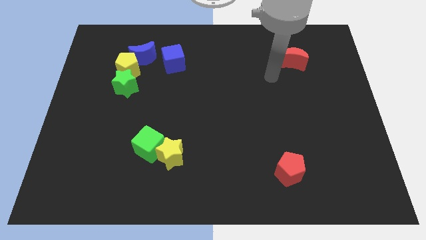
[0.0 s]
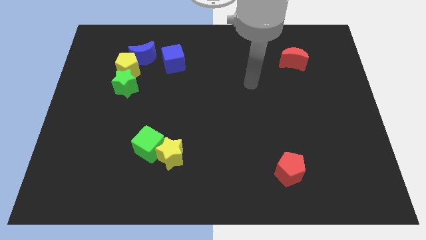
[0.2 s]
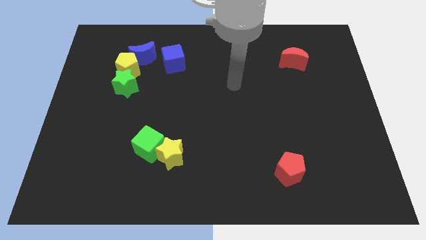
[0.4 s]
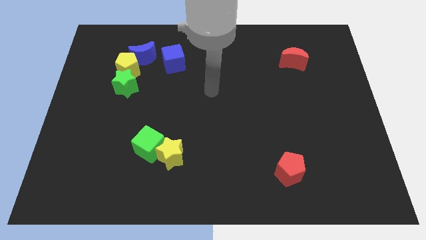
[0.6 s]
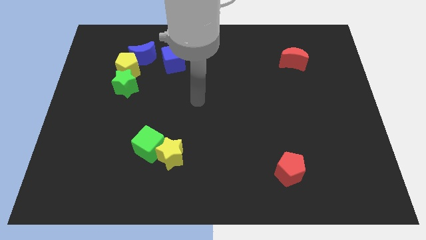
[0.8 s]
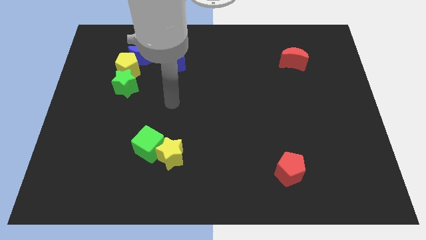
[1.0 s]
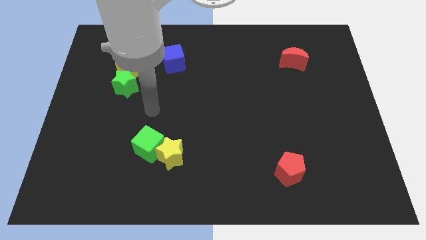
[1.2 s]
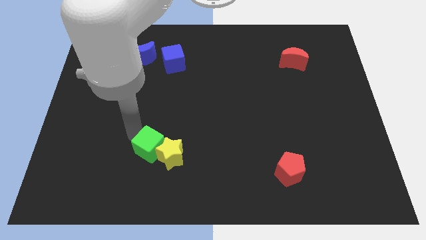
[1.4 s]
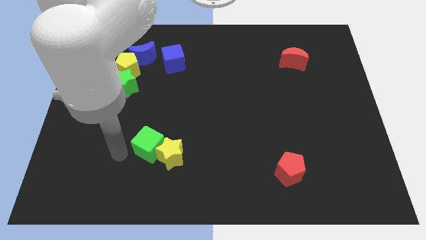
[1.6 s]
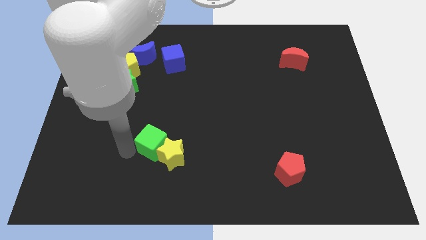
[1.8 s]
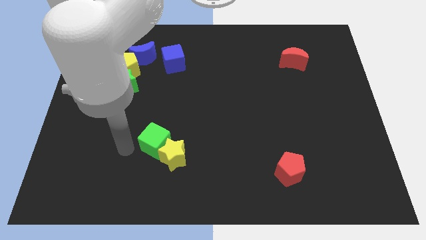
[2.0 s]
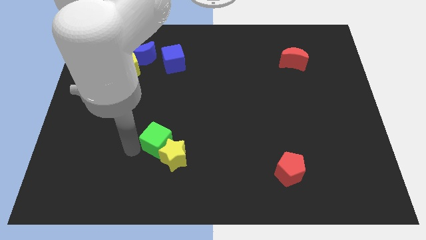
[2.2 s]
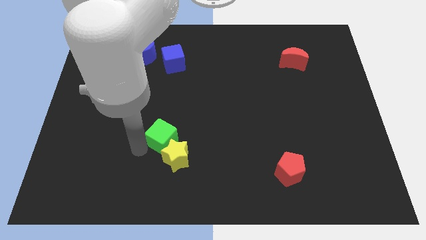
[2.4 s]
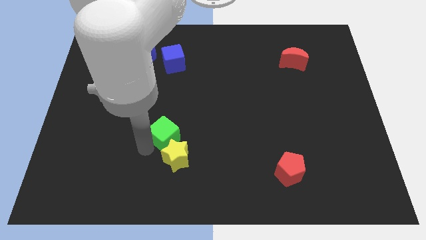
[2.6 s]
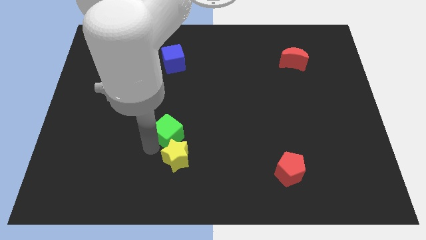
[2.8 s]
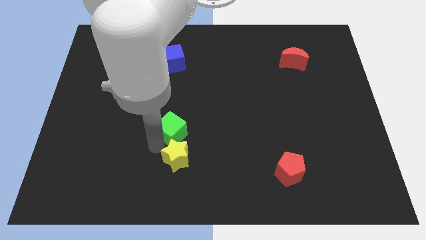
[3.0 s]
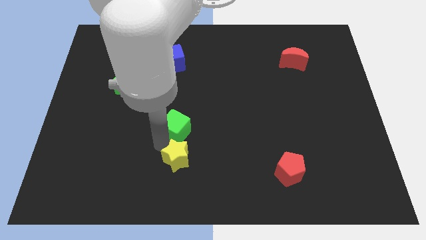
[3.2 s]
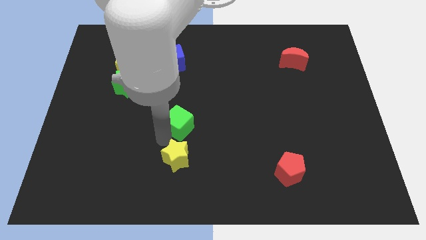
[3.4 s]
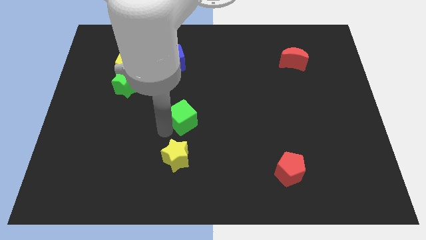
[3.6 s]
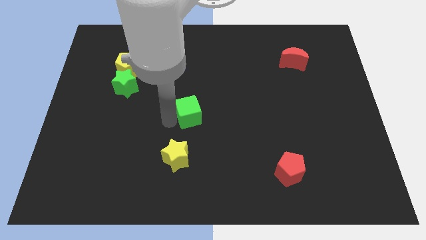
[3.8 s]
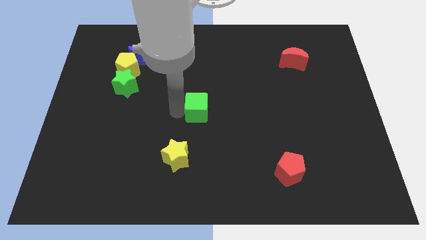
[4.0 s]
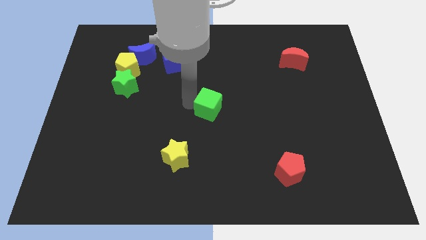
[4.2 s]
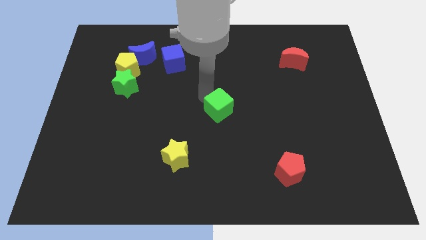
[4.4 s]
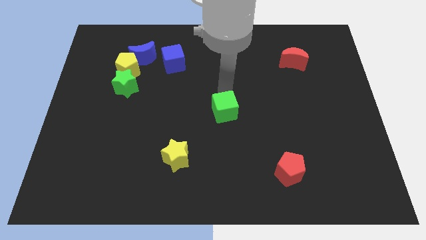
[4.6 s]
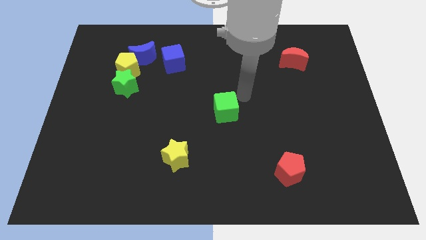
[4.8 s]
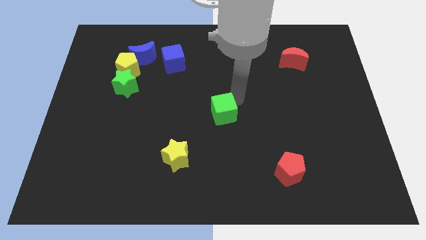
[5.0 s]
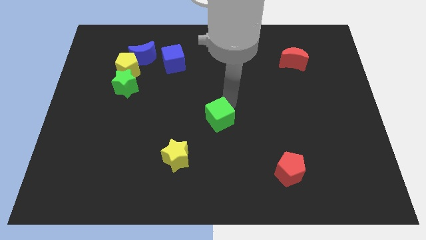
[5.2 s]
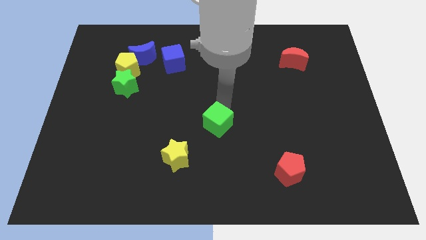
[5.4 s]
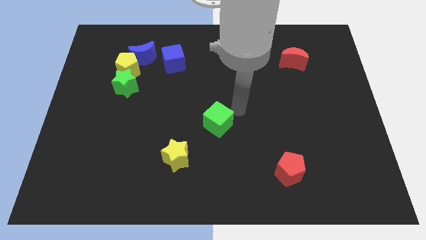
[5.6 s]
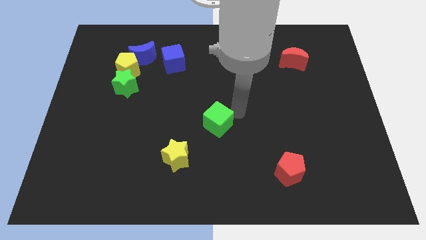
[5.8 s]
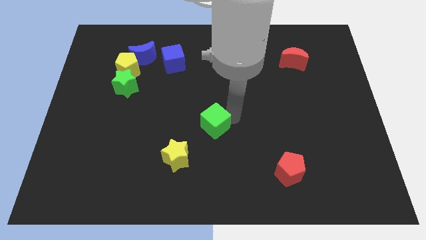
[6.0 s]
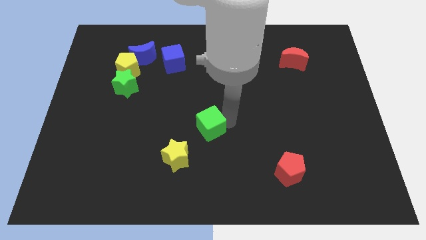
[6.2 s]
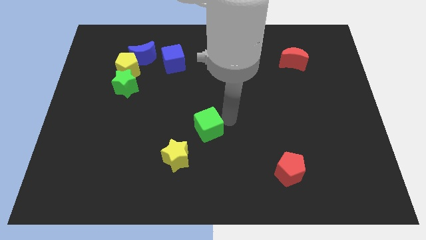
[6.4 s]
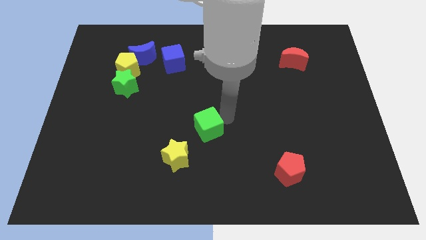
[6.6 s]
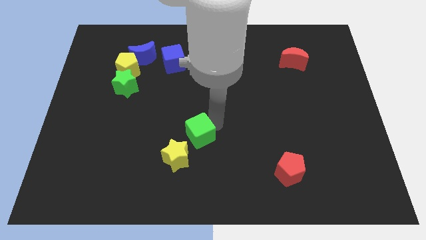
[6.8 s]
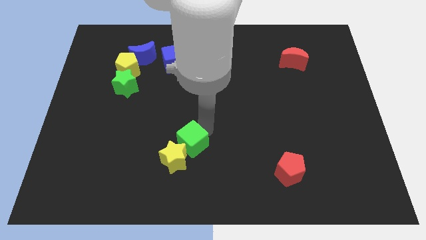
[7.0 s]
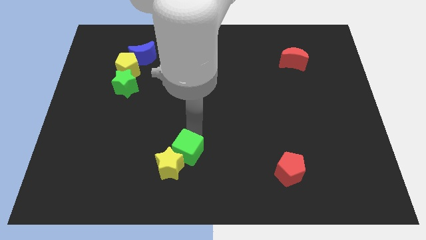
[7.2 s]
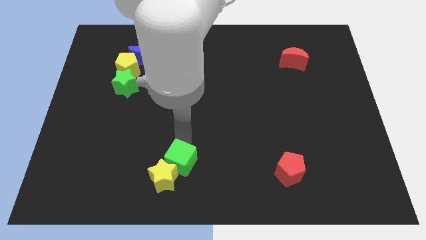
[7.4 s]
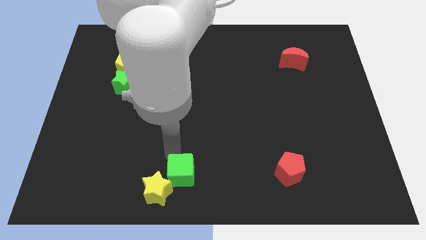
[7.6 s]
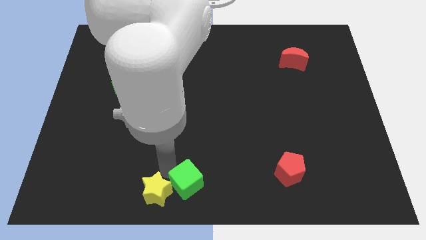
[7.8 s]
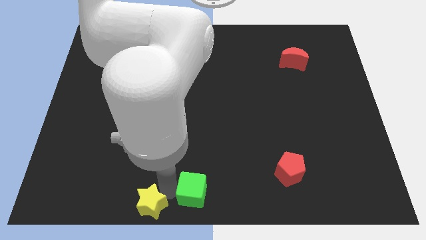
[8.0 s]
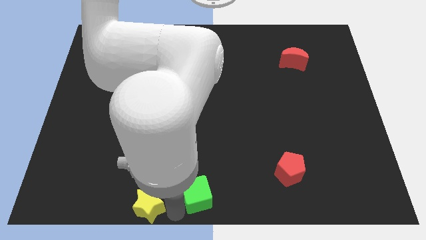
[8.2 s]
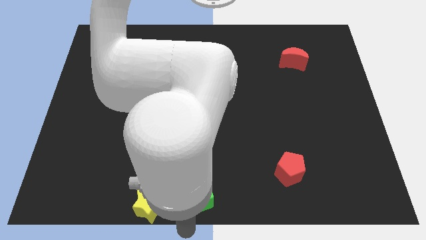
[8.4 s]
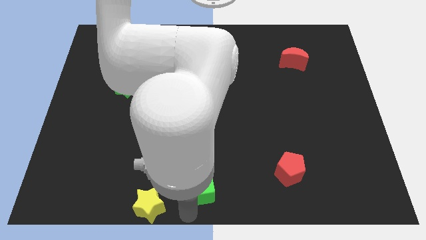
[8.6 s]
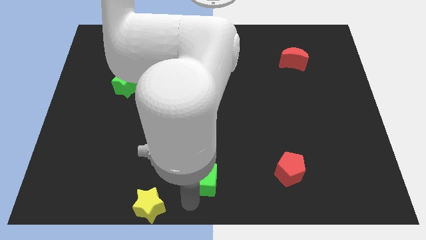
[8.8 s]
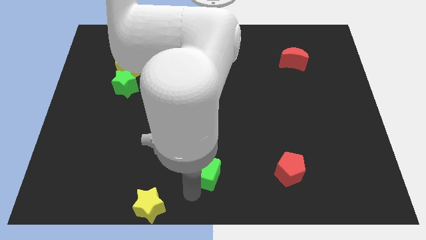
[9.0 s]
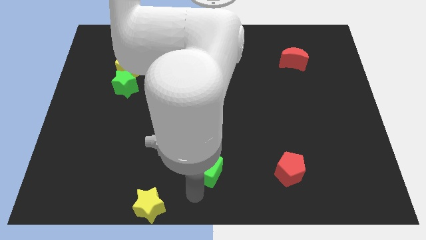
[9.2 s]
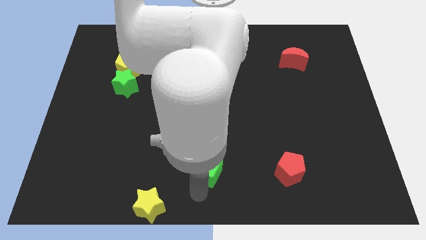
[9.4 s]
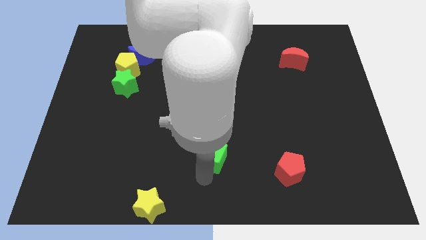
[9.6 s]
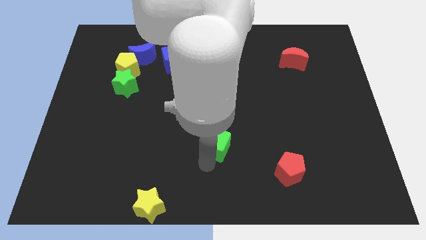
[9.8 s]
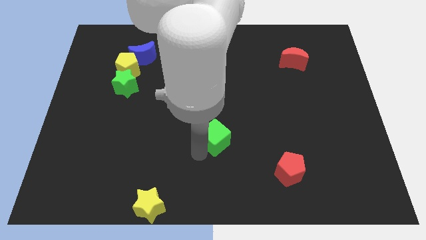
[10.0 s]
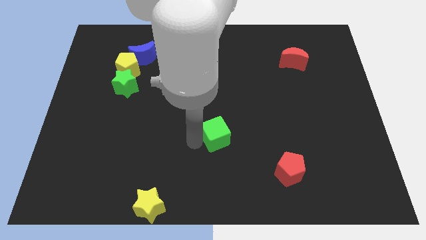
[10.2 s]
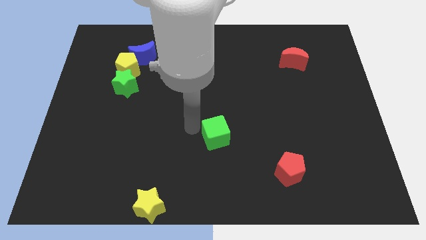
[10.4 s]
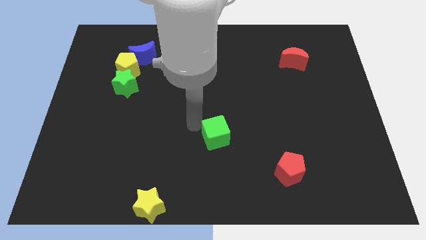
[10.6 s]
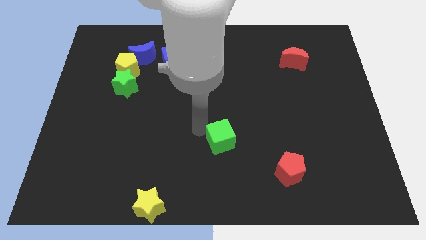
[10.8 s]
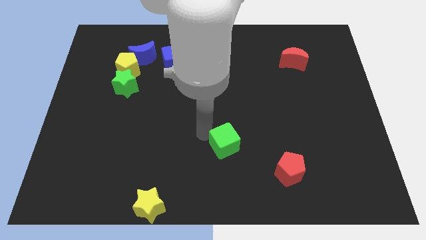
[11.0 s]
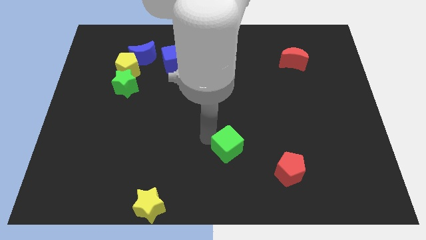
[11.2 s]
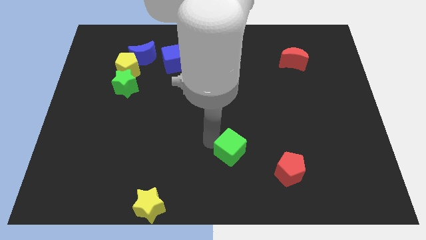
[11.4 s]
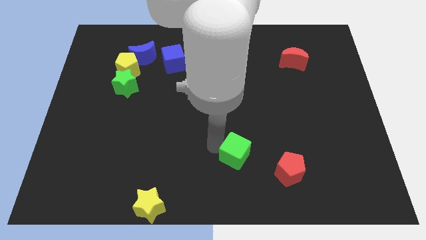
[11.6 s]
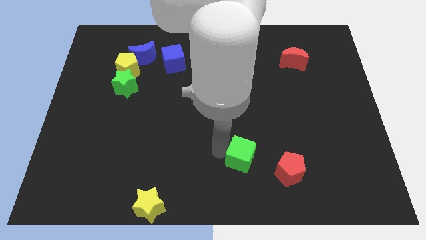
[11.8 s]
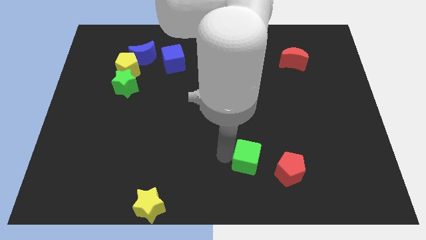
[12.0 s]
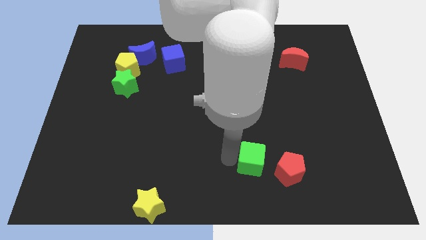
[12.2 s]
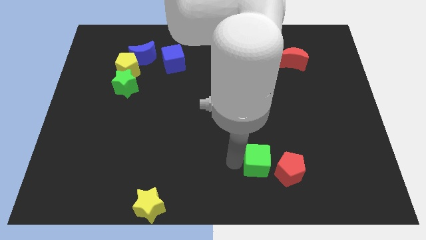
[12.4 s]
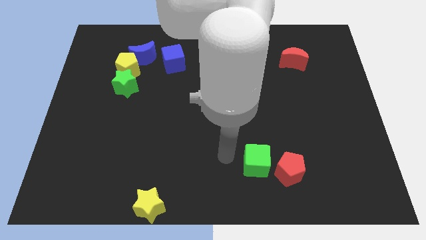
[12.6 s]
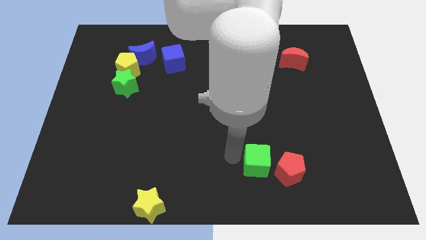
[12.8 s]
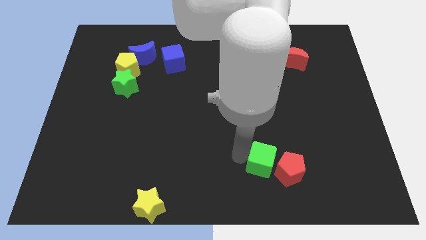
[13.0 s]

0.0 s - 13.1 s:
move the green cube next to the red pentagon

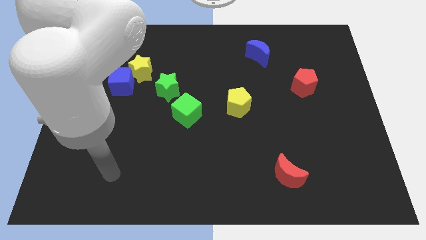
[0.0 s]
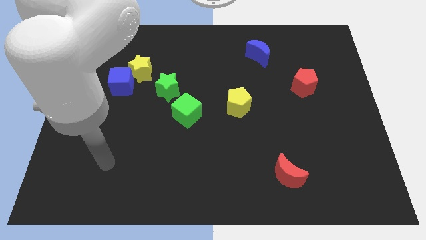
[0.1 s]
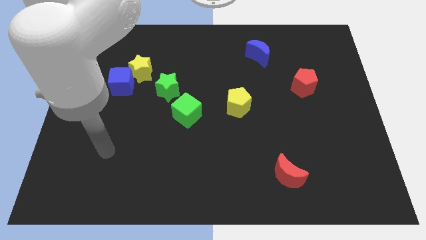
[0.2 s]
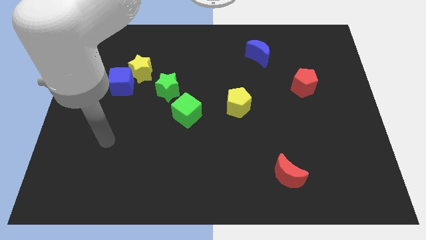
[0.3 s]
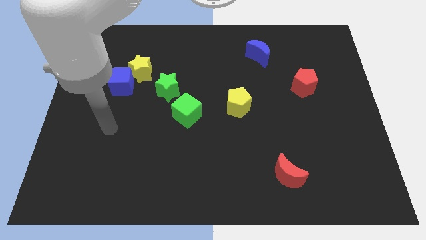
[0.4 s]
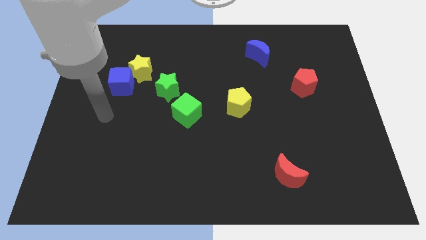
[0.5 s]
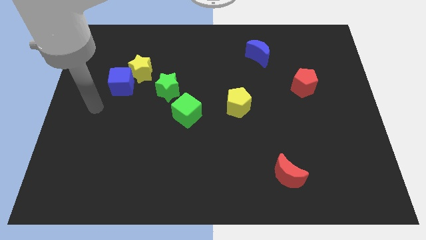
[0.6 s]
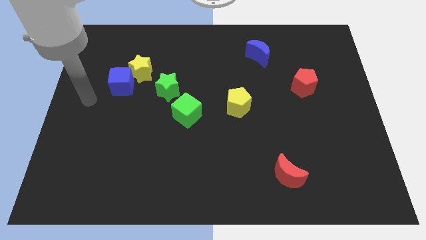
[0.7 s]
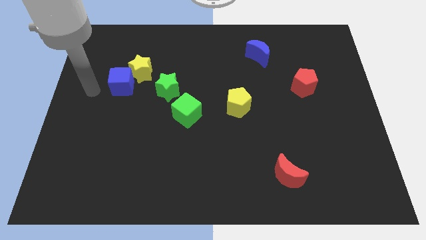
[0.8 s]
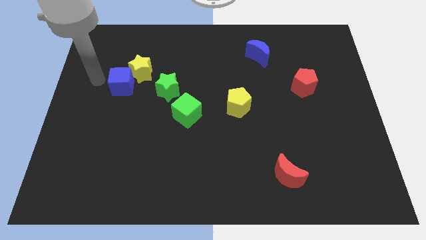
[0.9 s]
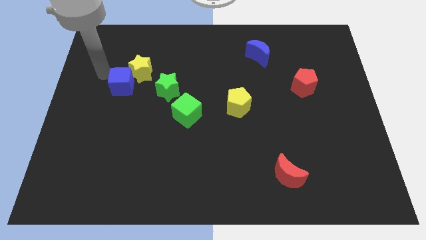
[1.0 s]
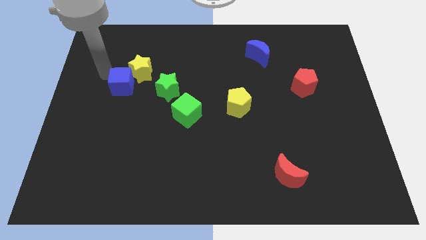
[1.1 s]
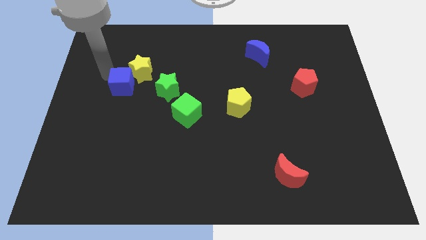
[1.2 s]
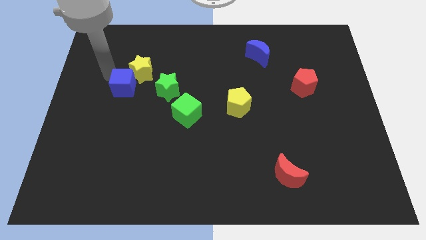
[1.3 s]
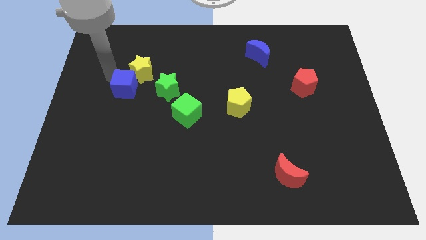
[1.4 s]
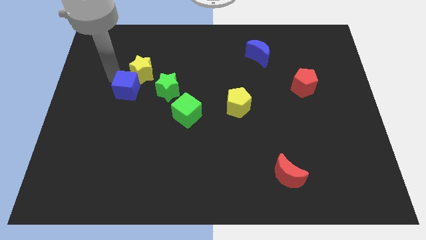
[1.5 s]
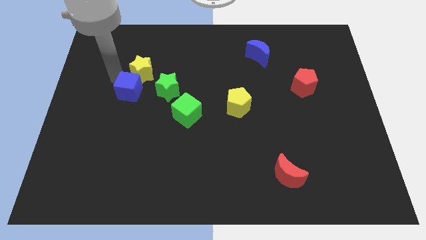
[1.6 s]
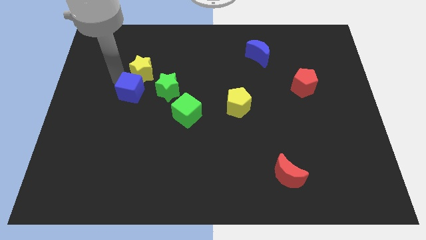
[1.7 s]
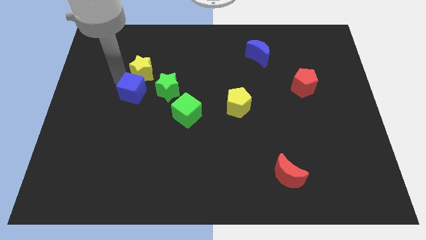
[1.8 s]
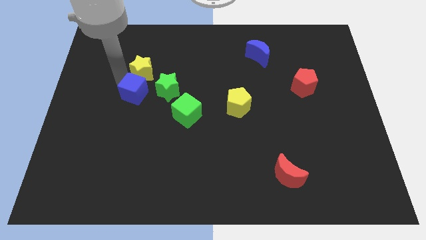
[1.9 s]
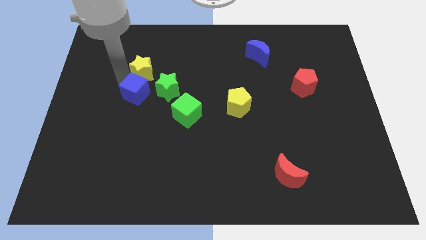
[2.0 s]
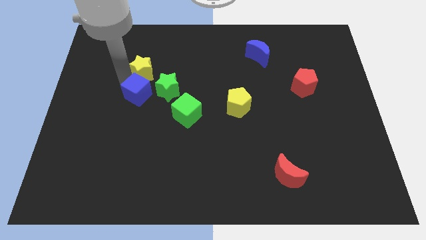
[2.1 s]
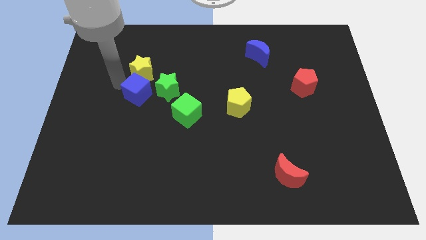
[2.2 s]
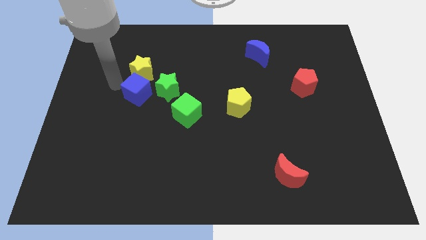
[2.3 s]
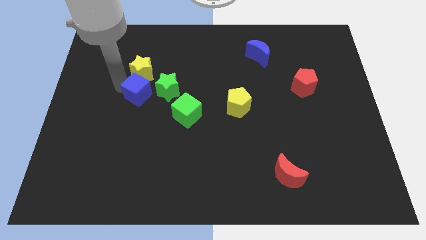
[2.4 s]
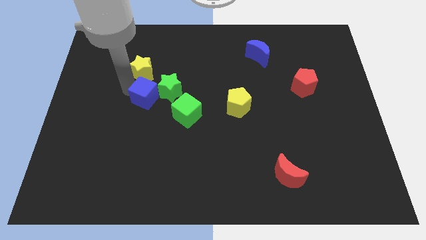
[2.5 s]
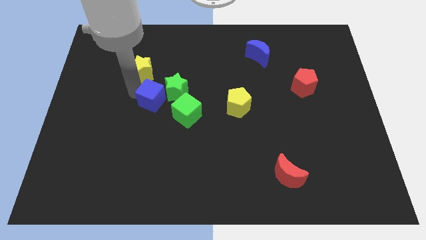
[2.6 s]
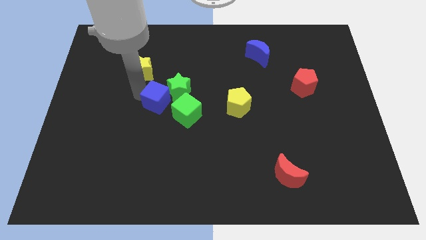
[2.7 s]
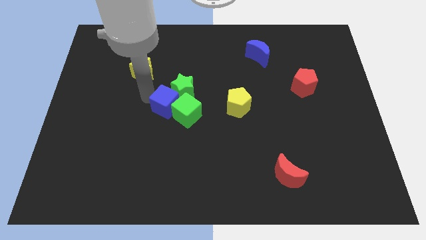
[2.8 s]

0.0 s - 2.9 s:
push the blue cube close to the green cube
